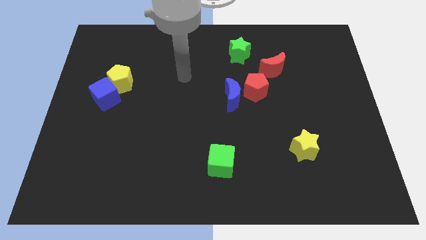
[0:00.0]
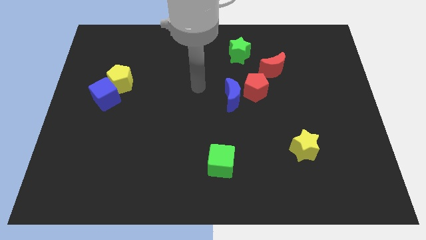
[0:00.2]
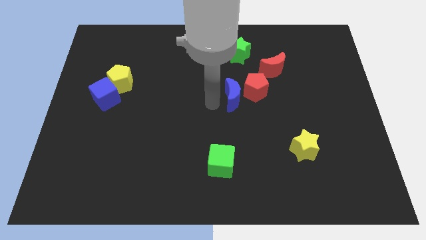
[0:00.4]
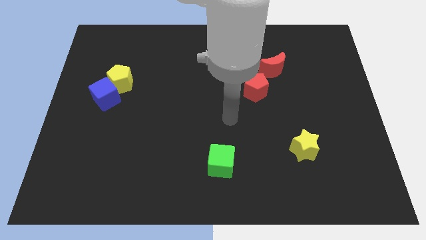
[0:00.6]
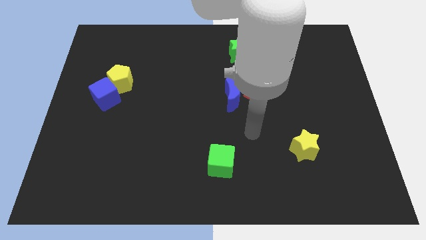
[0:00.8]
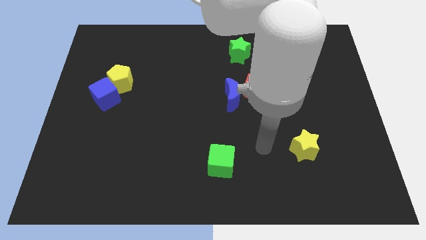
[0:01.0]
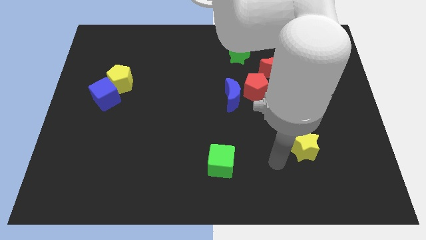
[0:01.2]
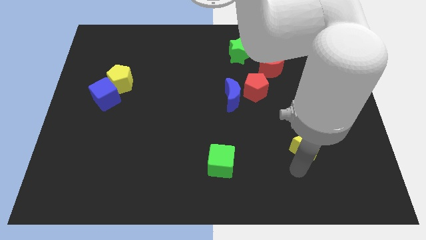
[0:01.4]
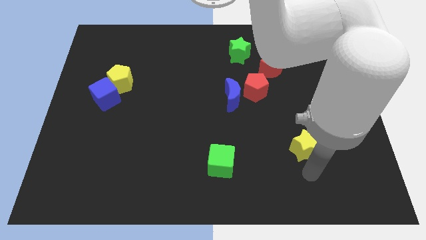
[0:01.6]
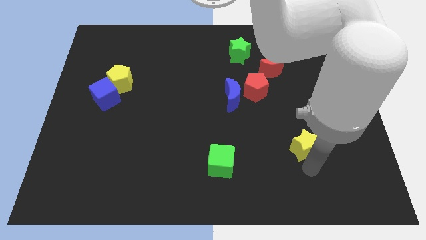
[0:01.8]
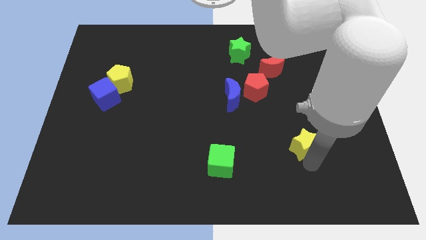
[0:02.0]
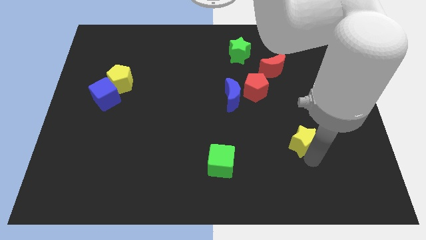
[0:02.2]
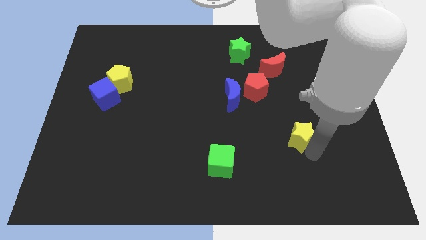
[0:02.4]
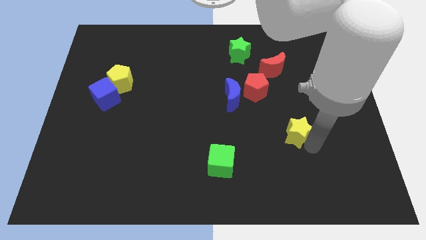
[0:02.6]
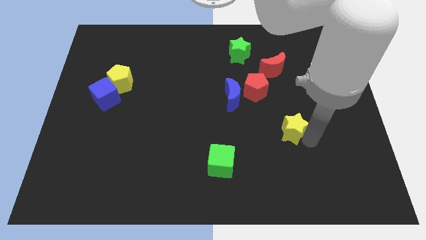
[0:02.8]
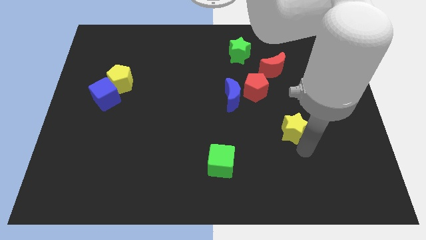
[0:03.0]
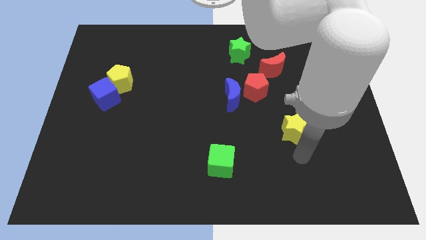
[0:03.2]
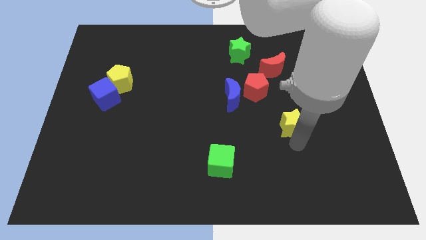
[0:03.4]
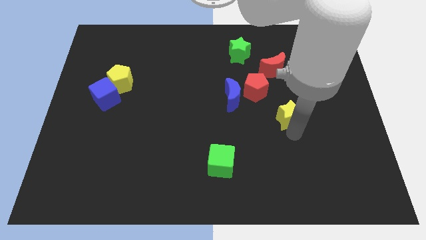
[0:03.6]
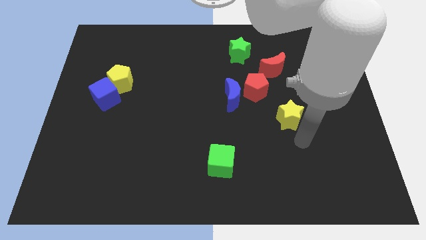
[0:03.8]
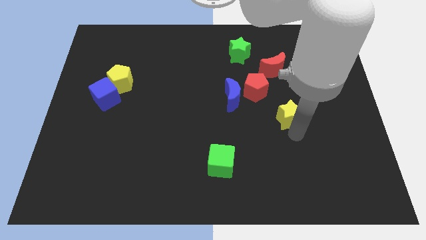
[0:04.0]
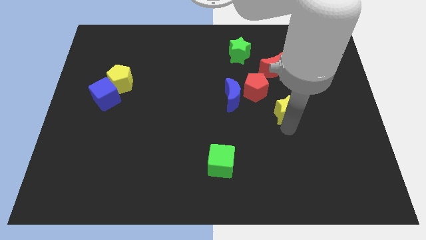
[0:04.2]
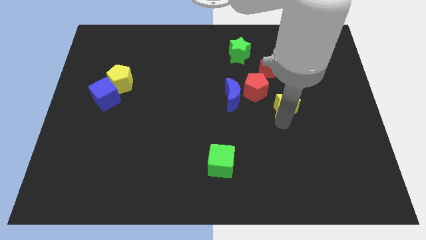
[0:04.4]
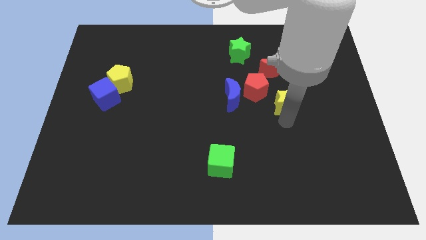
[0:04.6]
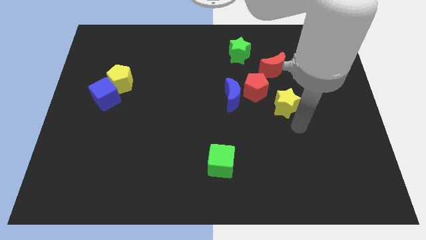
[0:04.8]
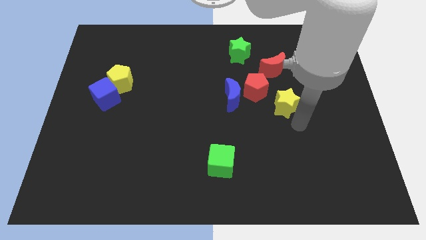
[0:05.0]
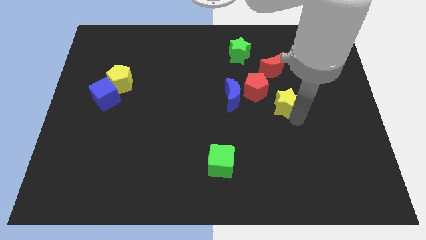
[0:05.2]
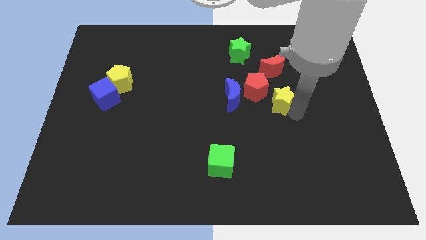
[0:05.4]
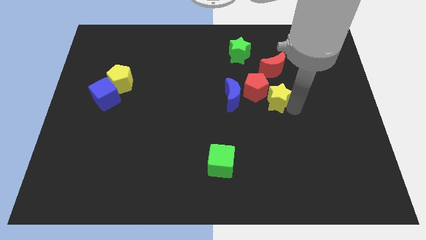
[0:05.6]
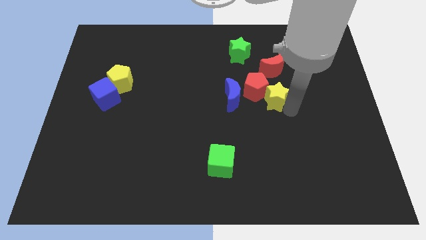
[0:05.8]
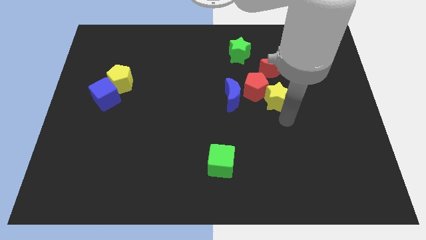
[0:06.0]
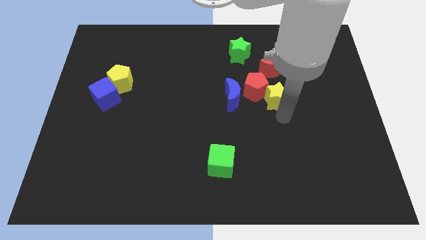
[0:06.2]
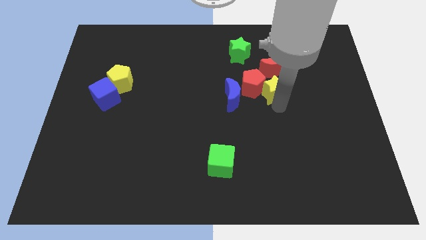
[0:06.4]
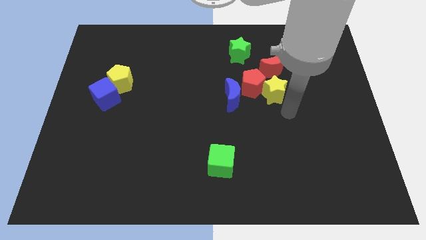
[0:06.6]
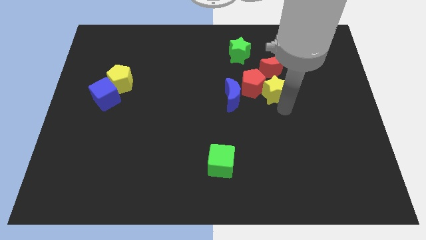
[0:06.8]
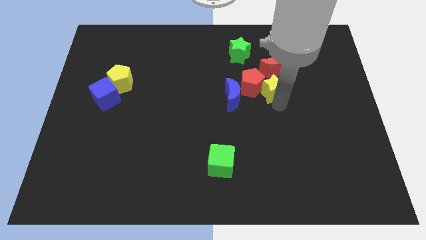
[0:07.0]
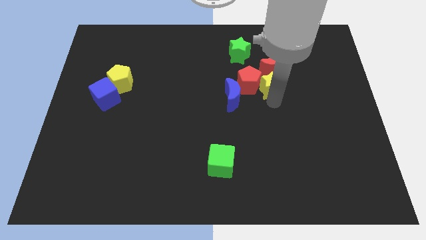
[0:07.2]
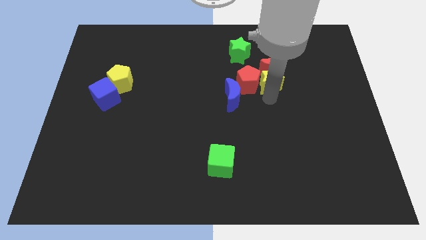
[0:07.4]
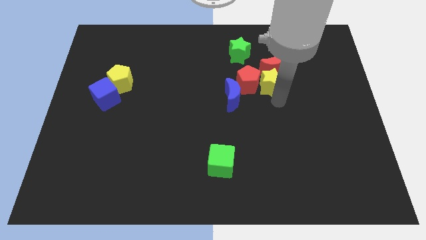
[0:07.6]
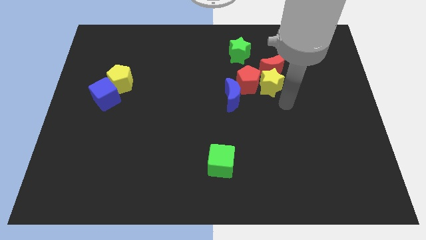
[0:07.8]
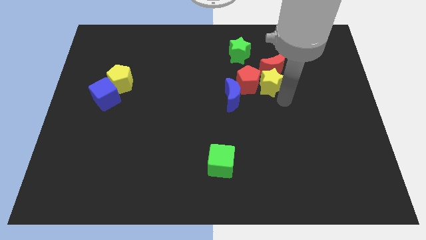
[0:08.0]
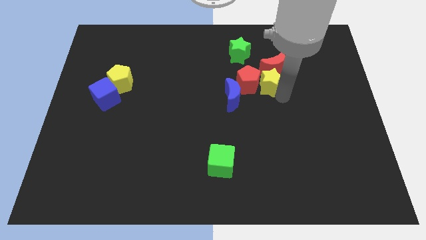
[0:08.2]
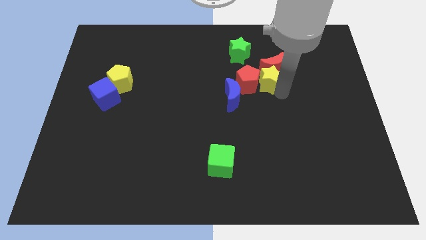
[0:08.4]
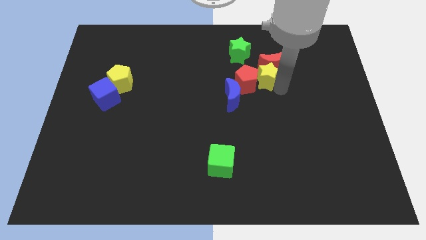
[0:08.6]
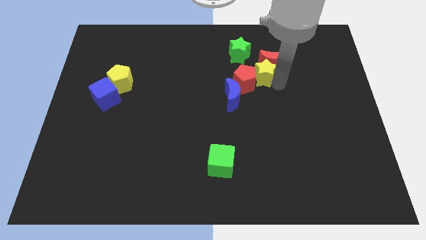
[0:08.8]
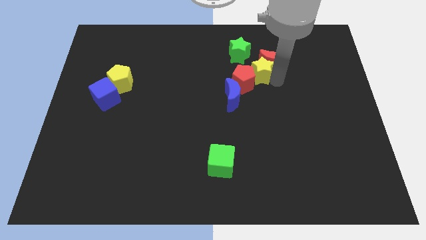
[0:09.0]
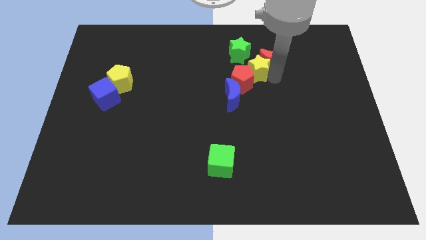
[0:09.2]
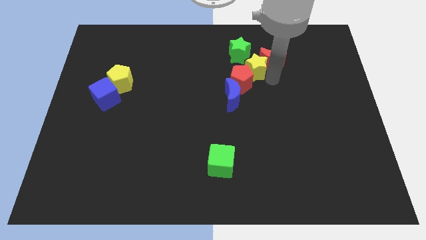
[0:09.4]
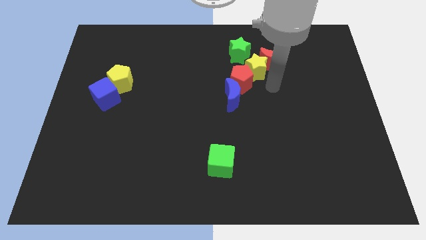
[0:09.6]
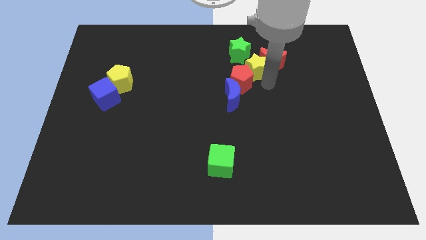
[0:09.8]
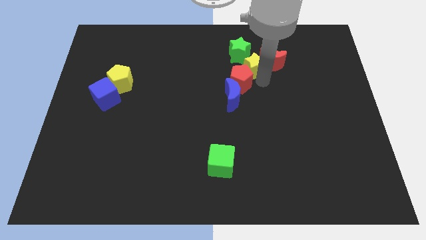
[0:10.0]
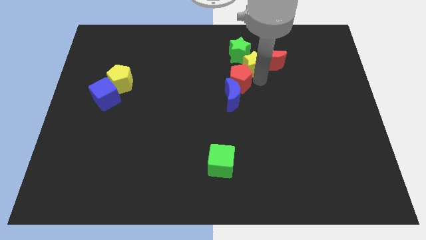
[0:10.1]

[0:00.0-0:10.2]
push the yellow star towards the green star

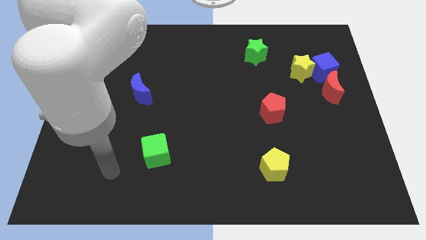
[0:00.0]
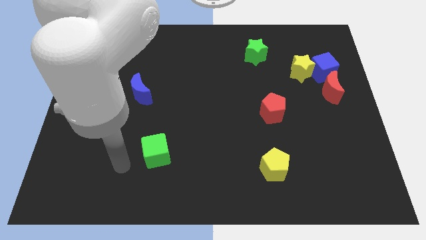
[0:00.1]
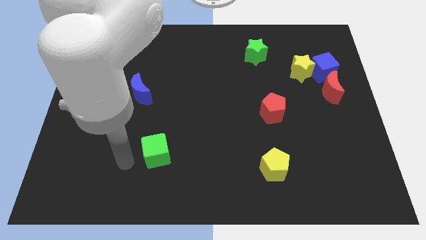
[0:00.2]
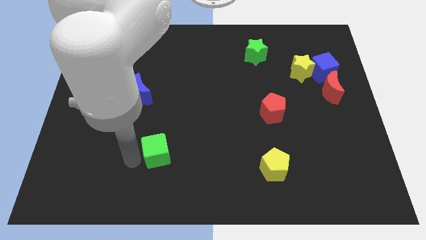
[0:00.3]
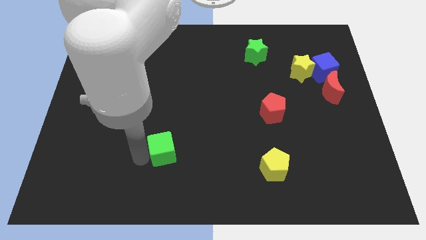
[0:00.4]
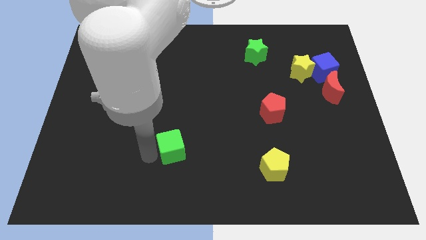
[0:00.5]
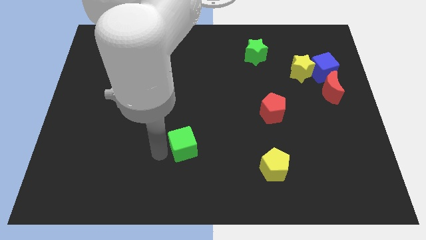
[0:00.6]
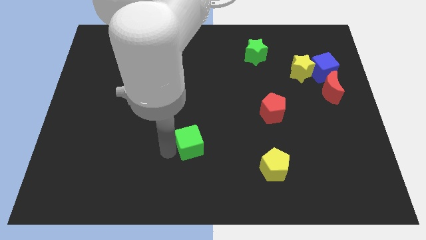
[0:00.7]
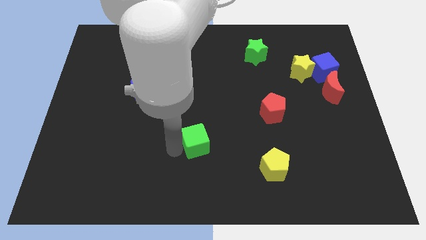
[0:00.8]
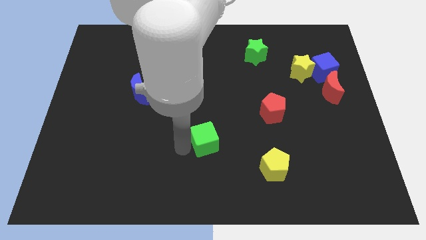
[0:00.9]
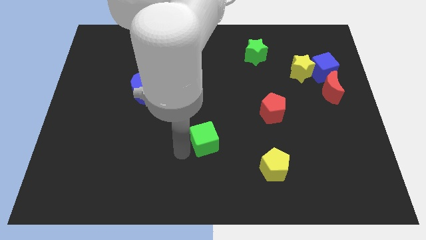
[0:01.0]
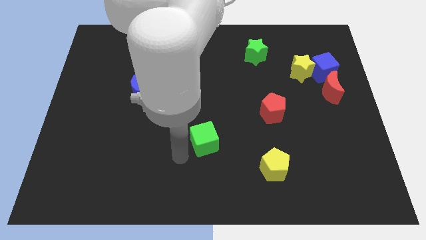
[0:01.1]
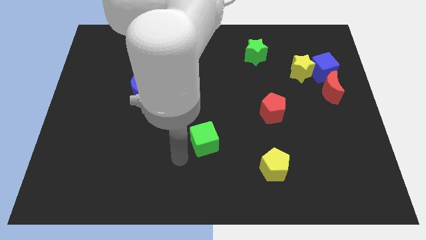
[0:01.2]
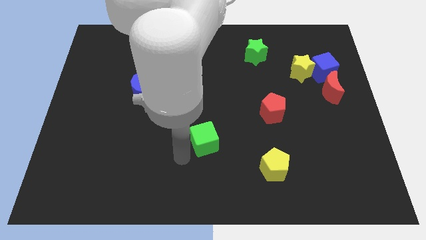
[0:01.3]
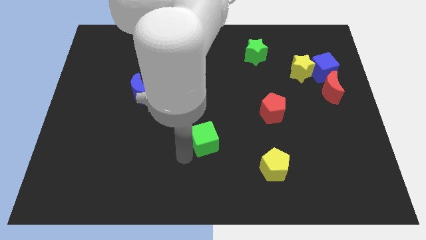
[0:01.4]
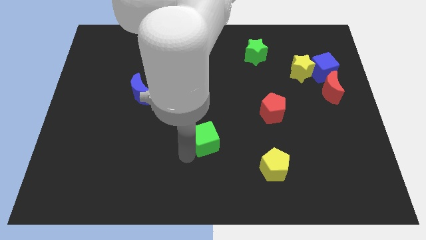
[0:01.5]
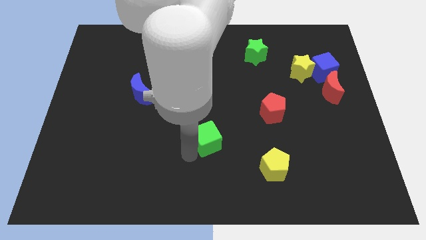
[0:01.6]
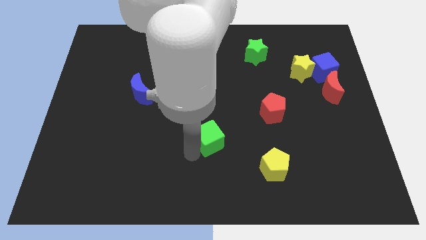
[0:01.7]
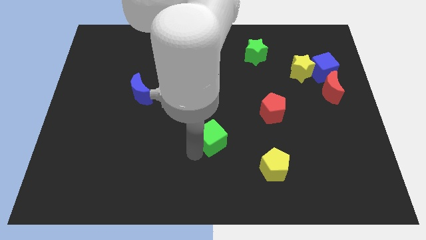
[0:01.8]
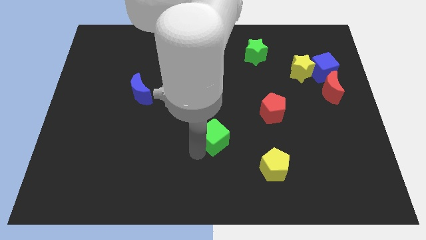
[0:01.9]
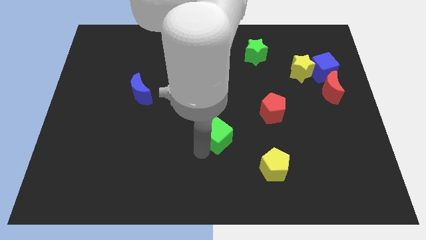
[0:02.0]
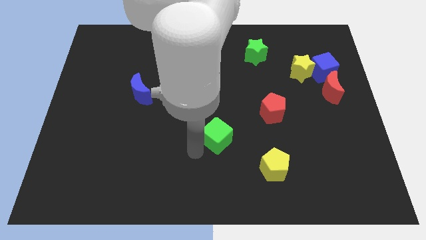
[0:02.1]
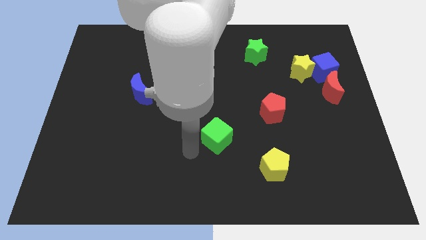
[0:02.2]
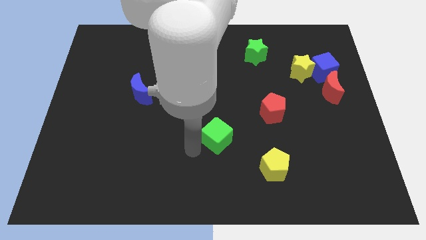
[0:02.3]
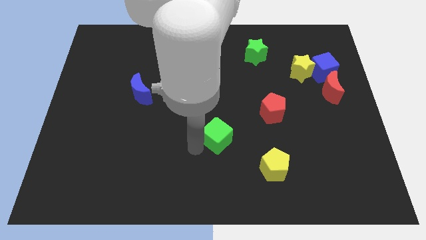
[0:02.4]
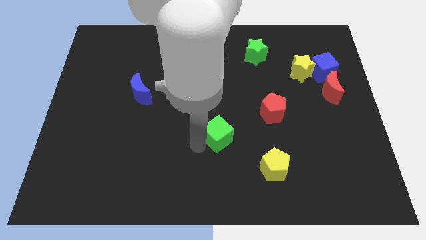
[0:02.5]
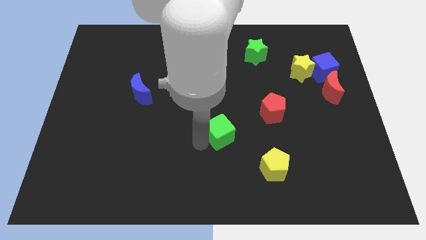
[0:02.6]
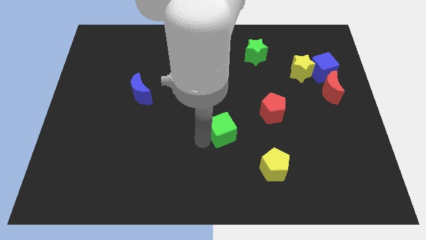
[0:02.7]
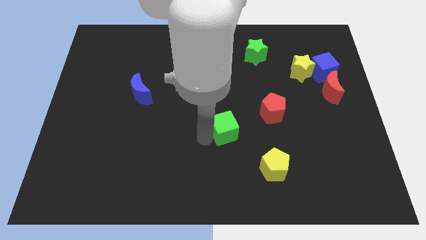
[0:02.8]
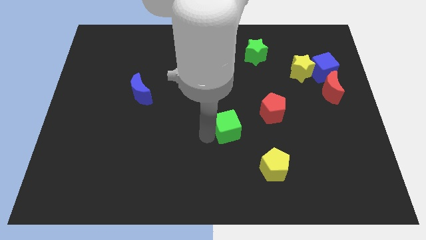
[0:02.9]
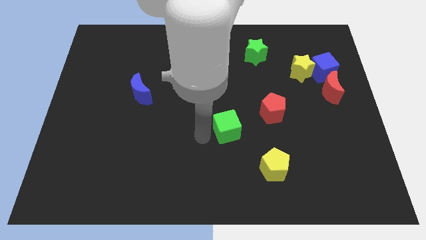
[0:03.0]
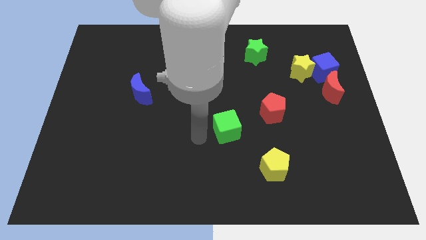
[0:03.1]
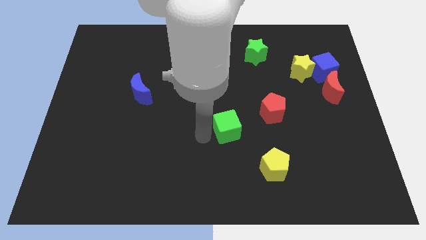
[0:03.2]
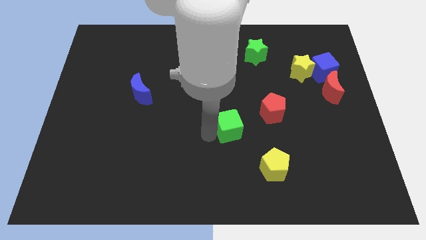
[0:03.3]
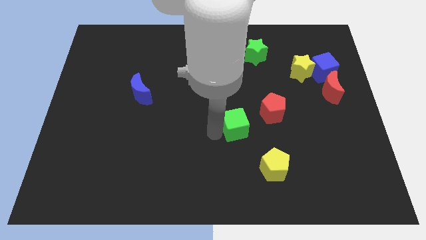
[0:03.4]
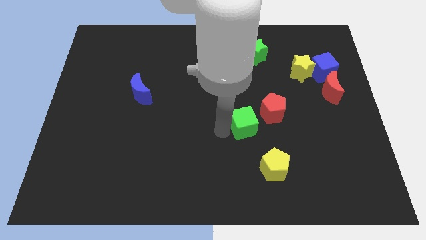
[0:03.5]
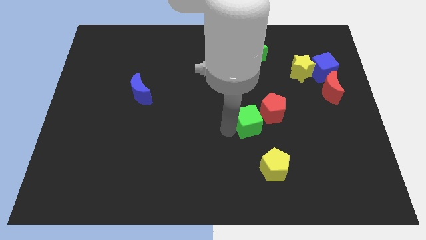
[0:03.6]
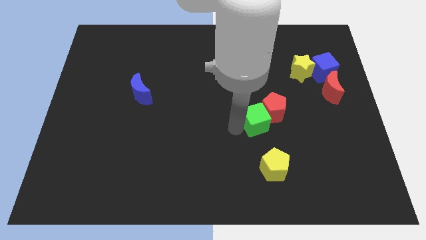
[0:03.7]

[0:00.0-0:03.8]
move the green cube to the red pentagon
